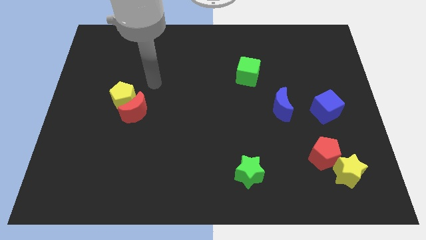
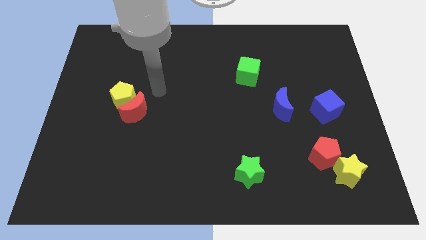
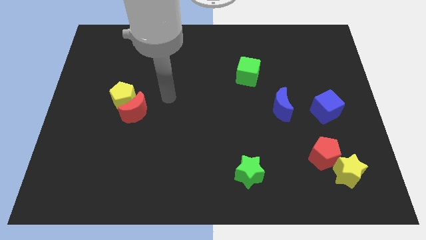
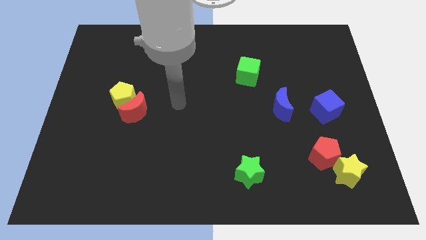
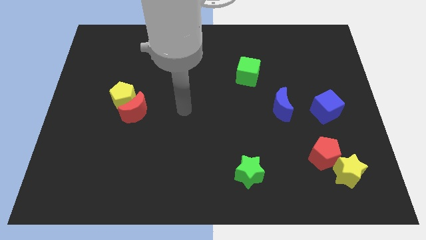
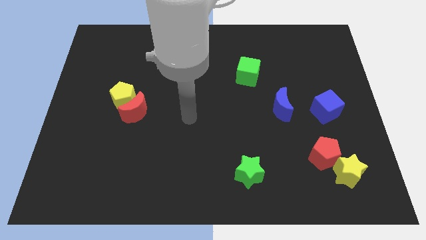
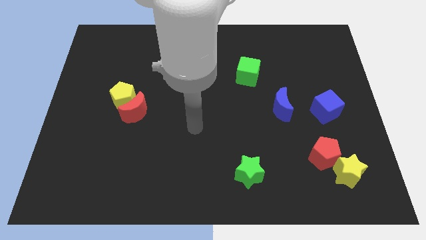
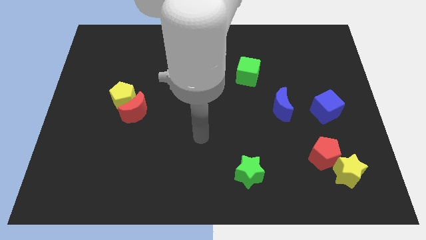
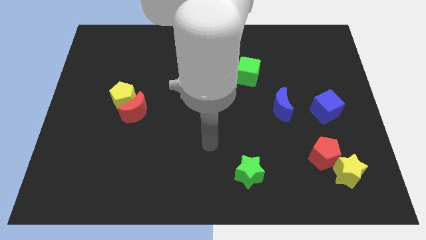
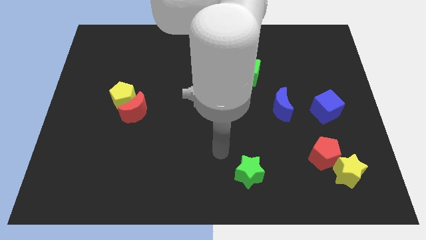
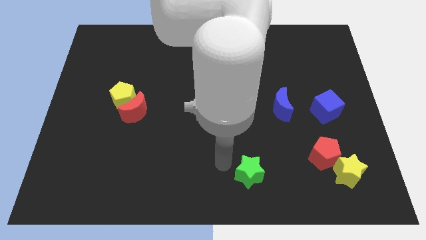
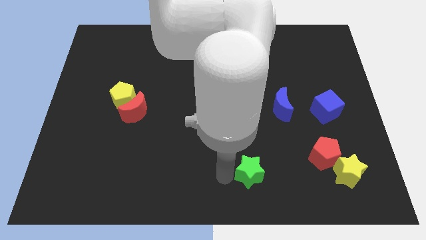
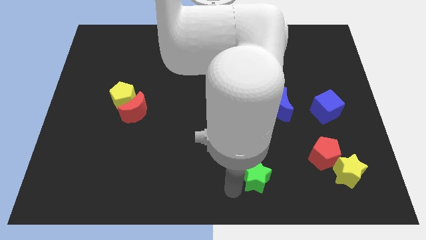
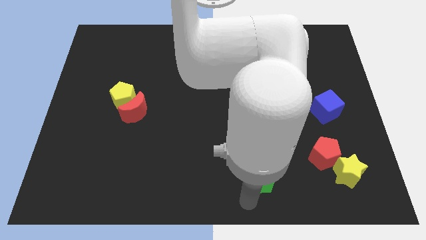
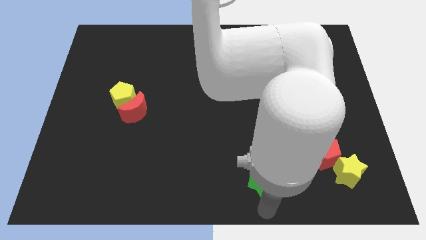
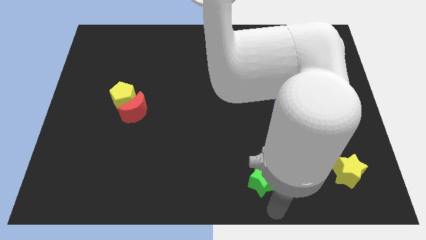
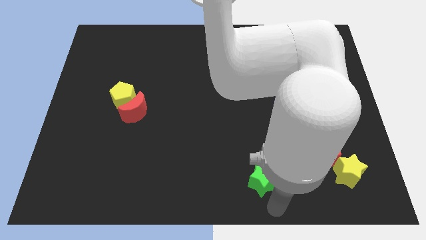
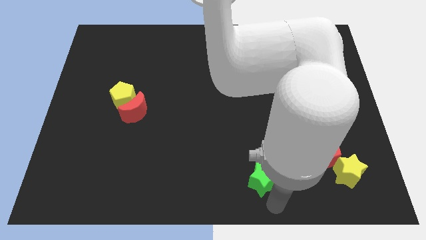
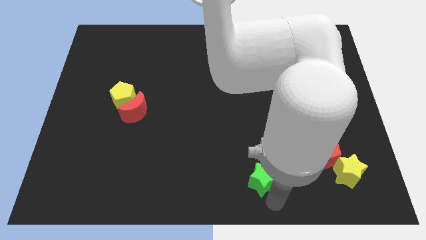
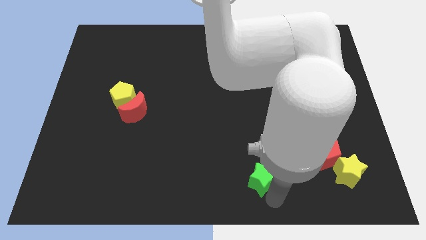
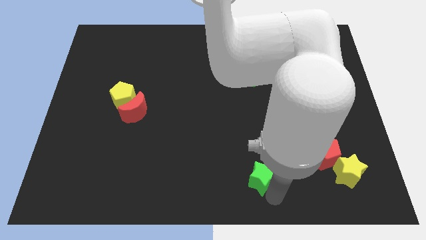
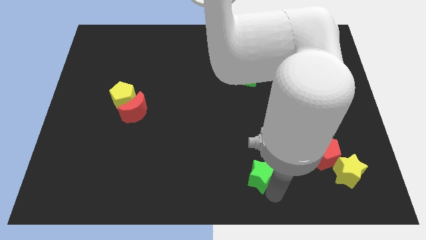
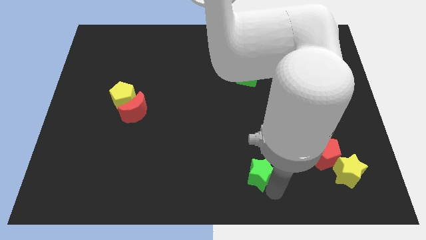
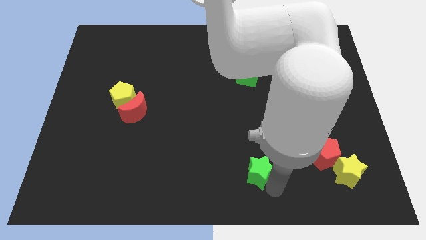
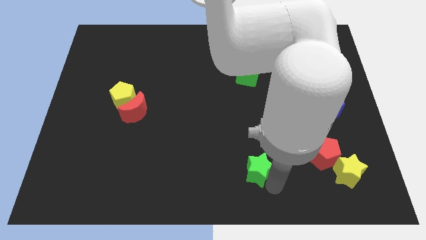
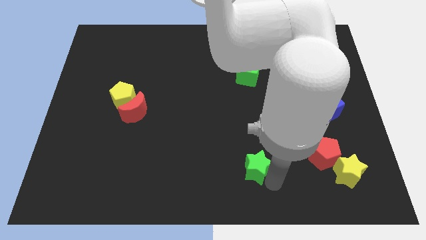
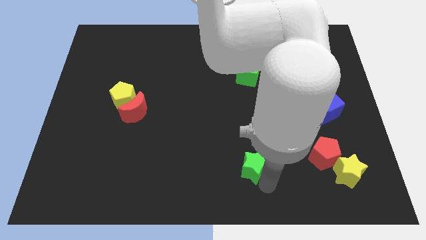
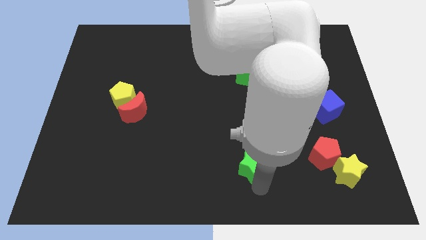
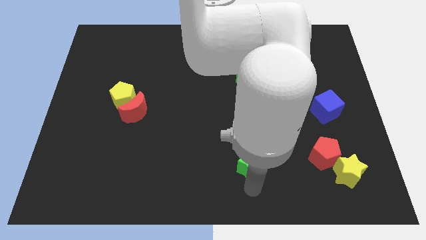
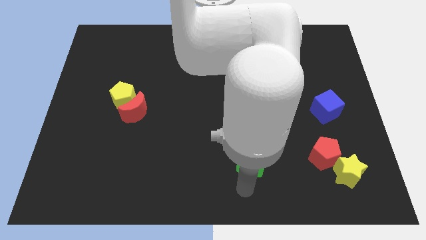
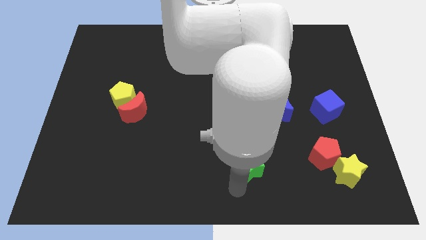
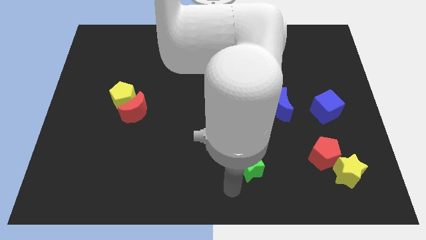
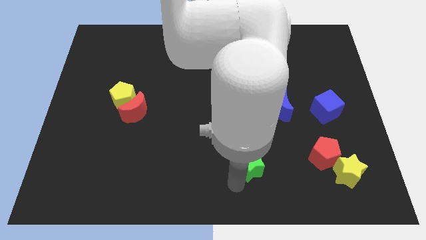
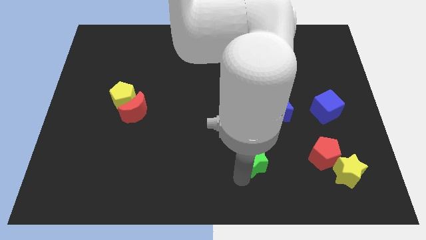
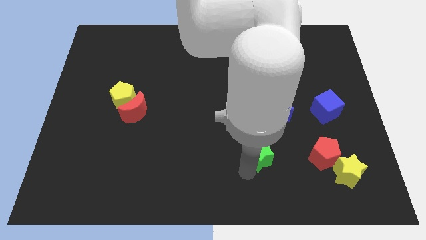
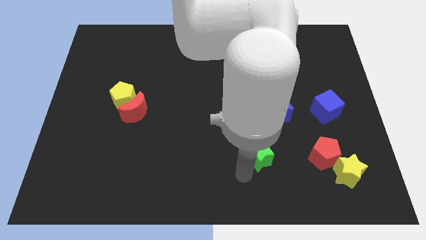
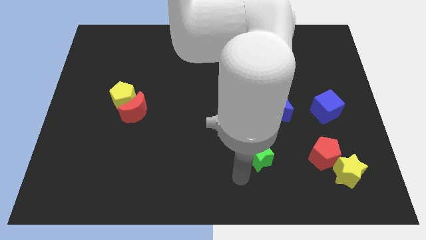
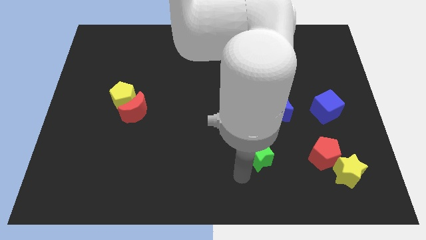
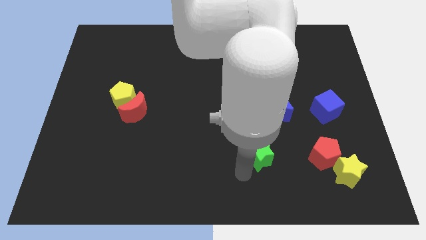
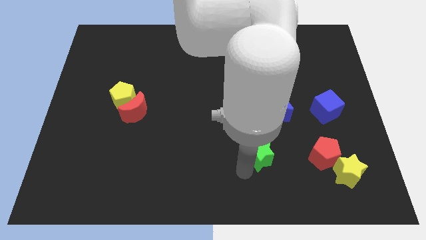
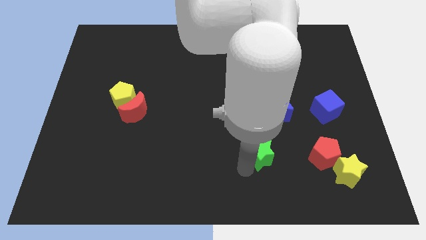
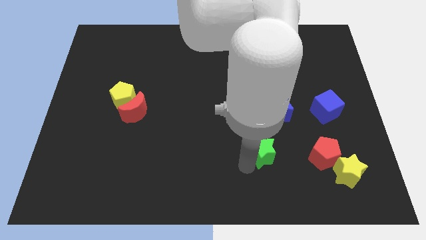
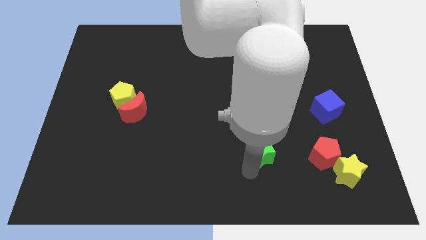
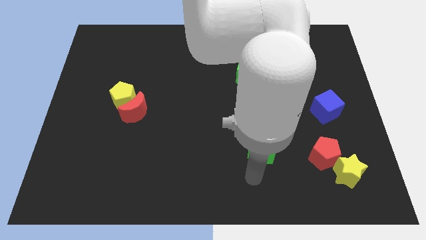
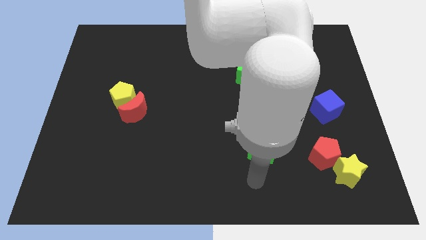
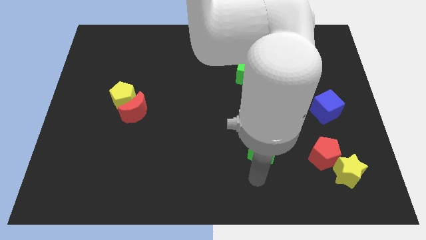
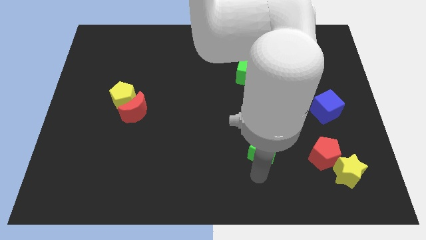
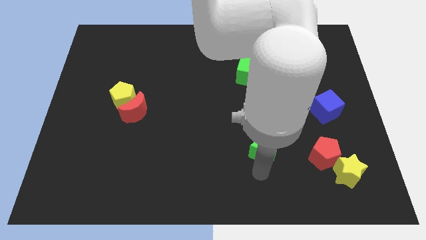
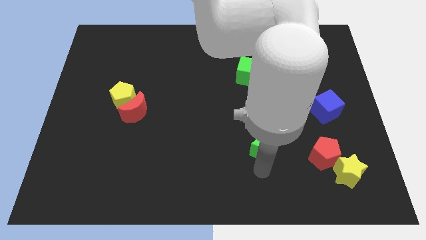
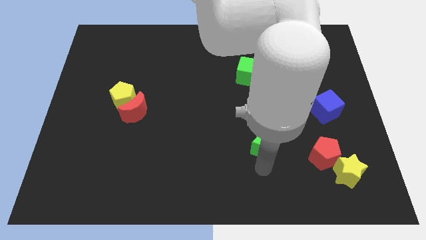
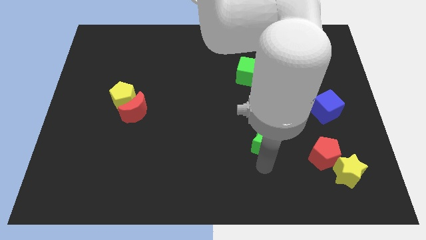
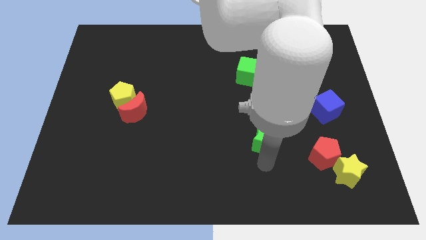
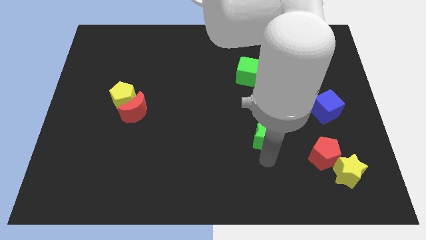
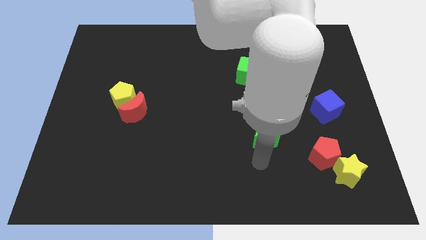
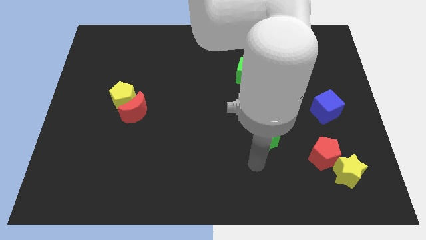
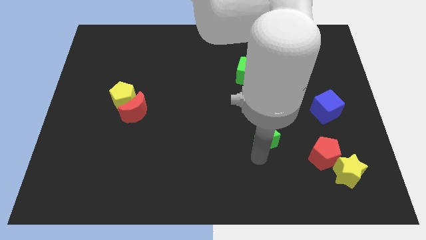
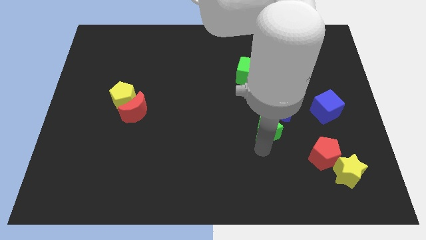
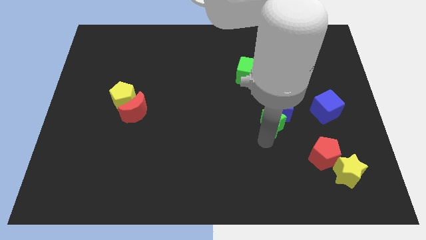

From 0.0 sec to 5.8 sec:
push the green star close to the blue moon

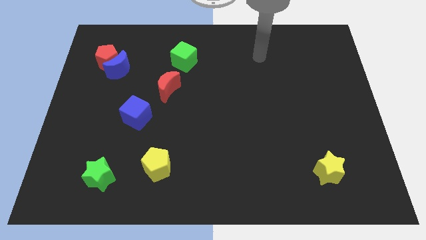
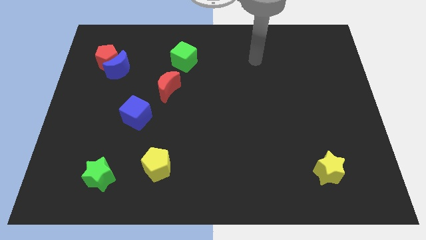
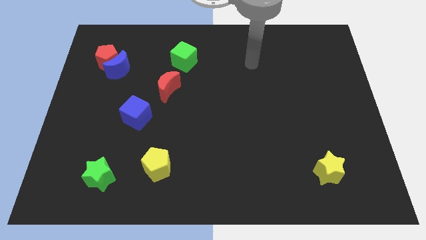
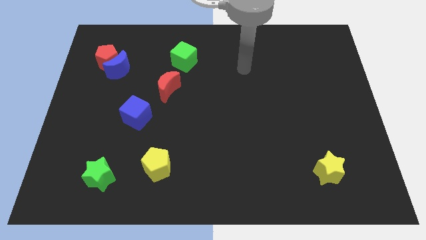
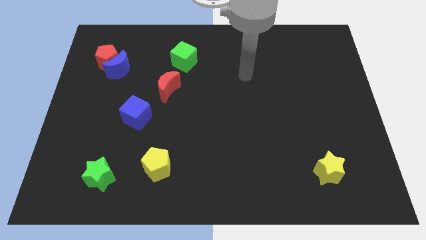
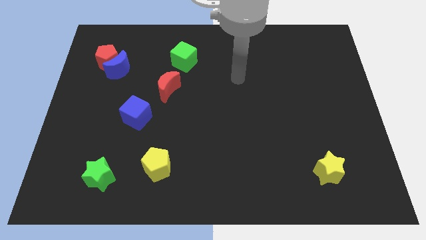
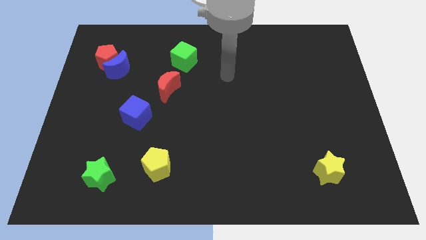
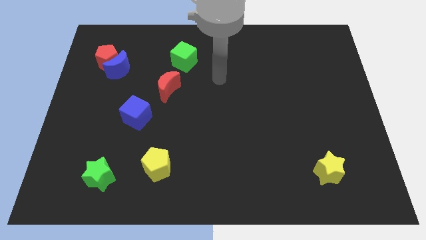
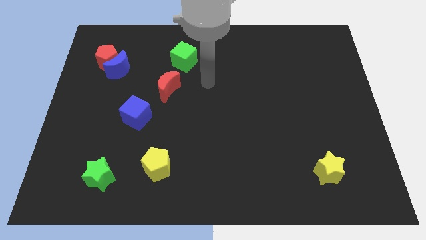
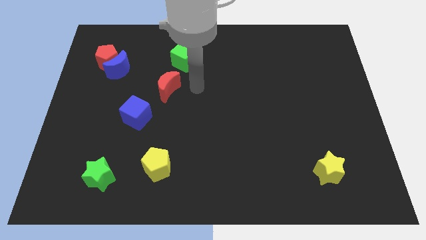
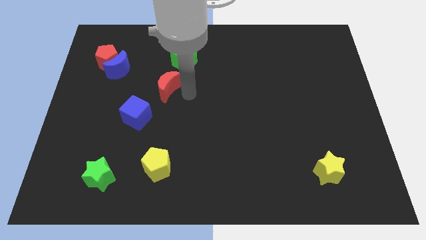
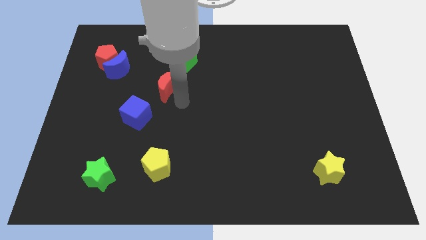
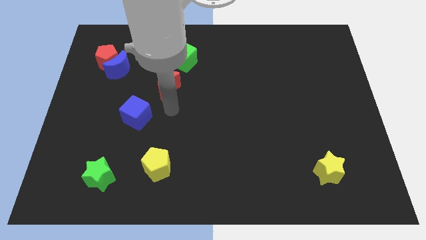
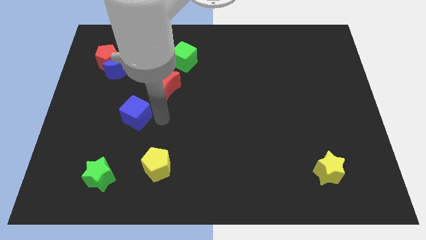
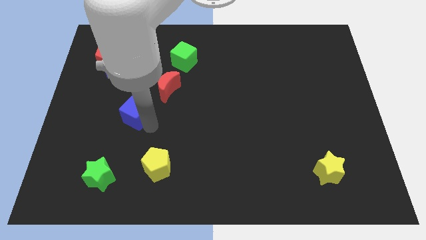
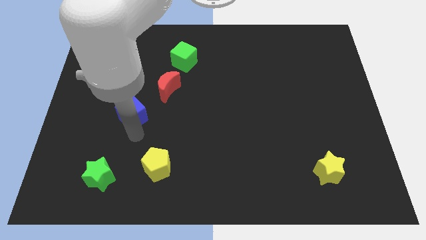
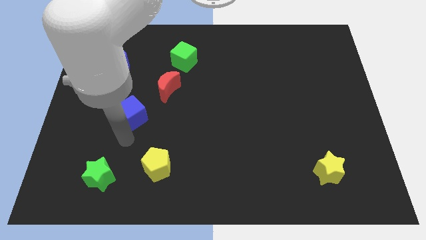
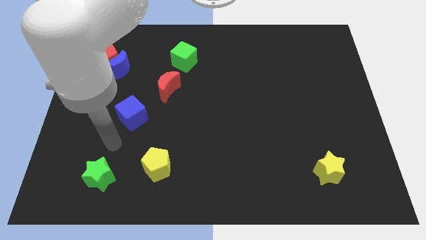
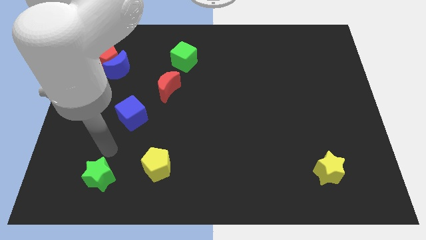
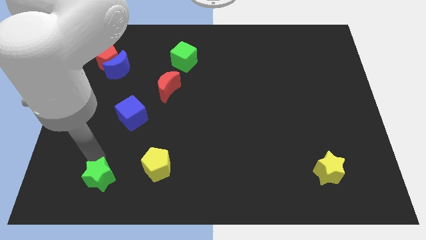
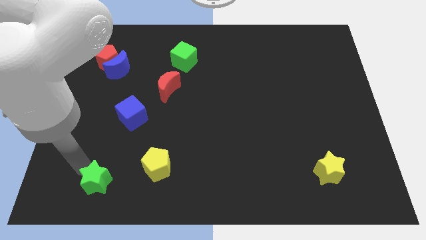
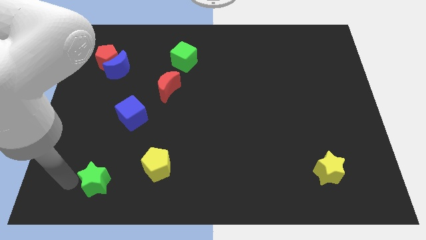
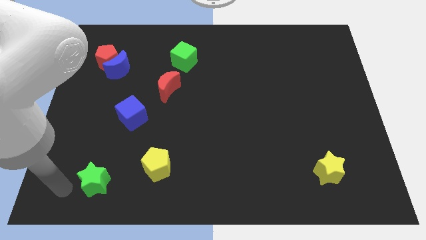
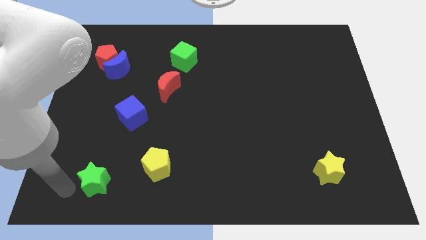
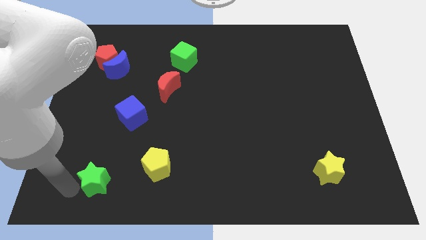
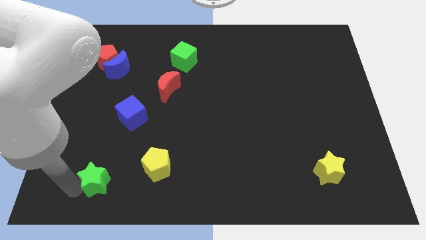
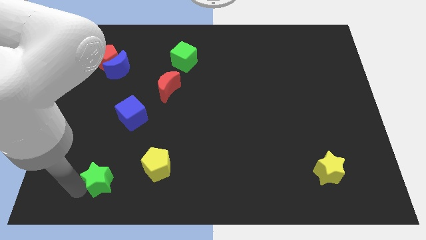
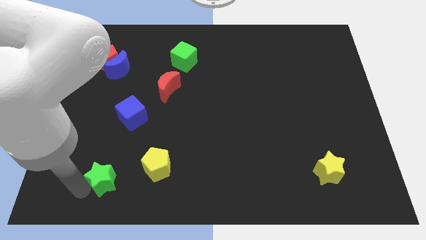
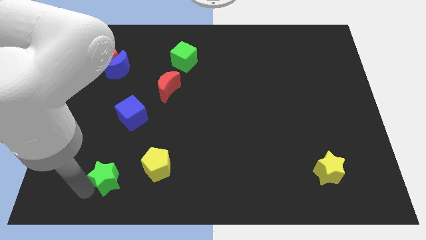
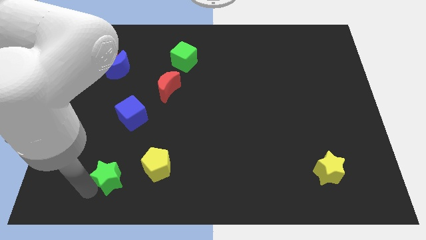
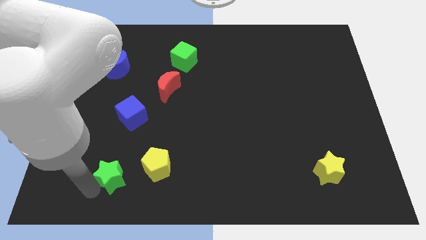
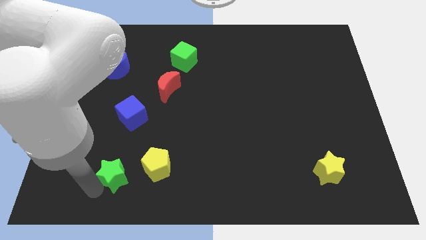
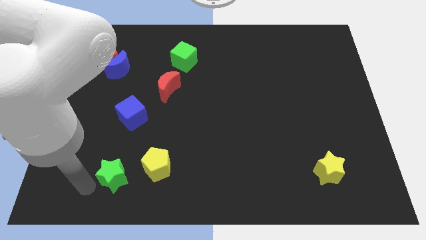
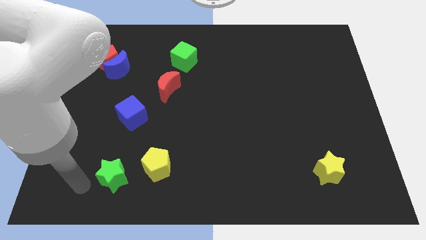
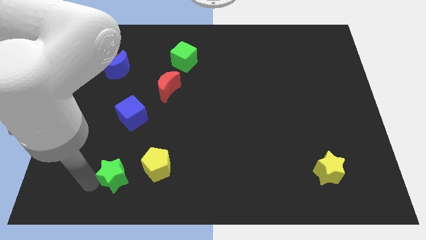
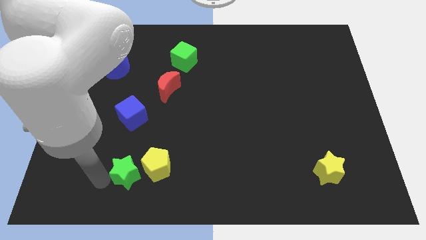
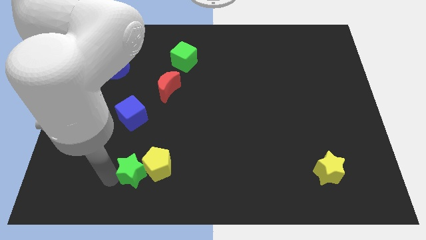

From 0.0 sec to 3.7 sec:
put the green star close to the yellow pentagon
